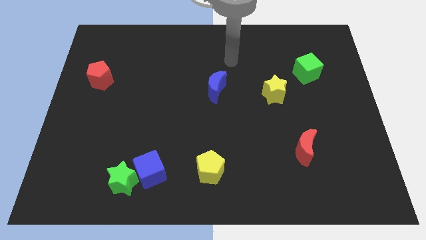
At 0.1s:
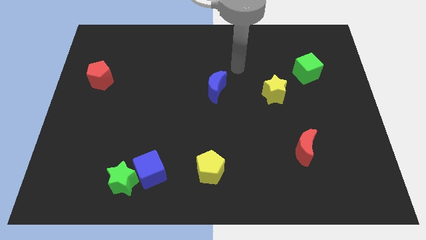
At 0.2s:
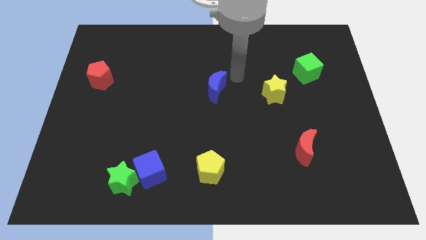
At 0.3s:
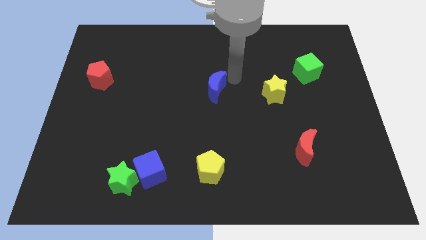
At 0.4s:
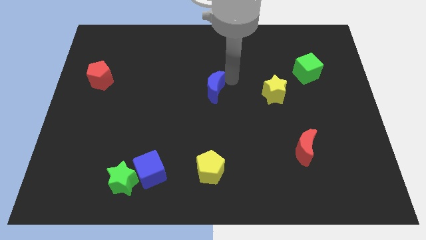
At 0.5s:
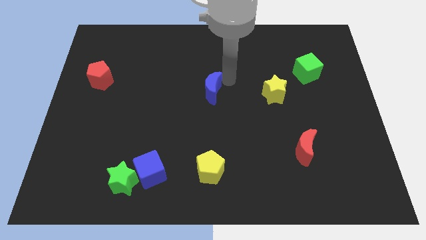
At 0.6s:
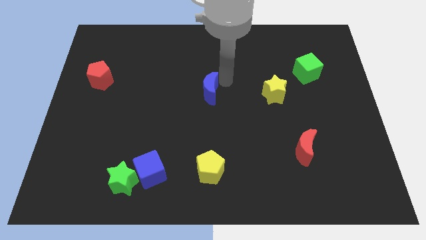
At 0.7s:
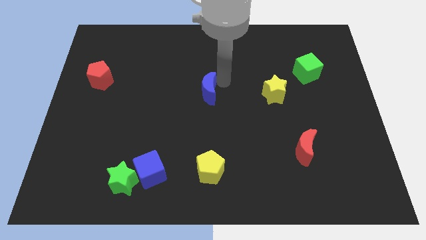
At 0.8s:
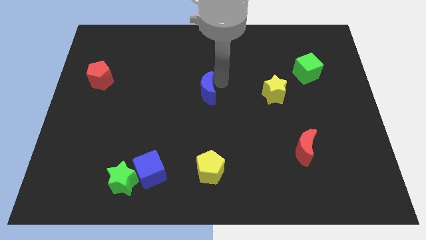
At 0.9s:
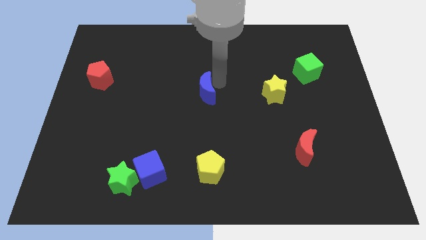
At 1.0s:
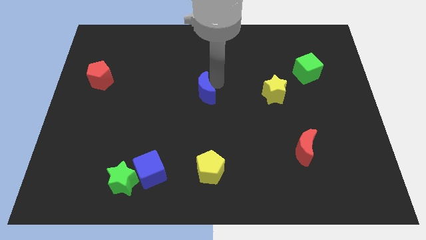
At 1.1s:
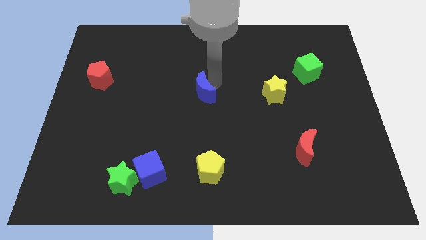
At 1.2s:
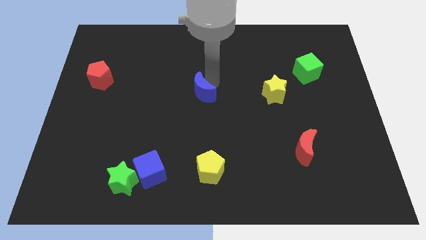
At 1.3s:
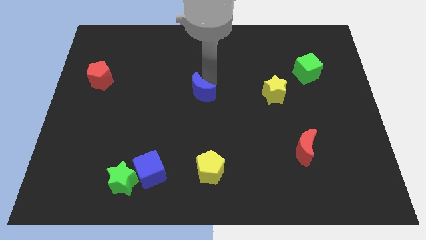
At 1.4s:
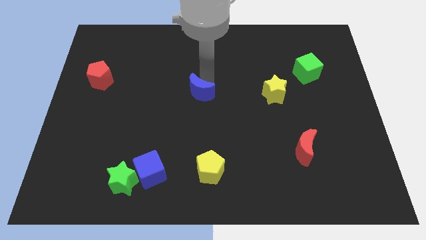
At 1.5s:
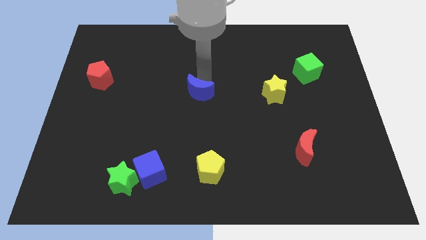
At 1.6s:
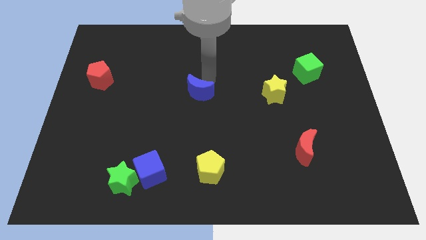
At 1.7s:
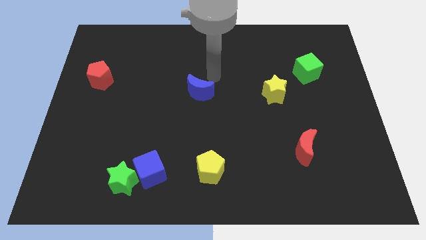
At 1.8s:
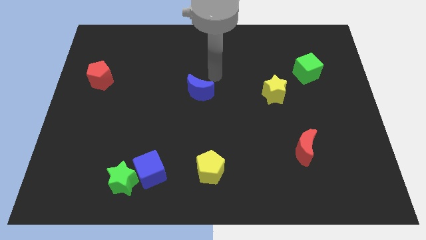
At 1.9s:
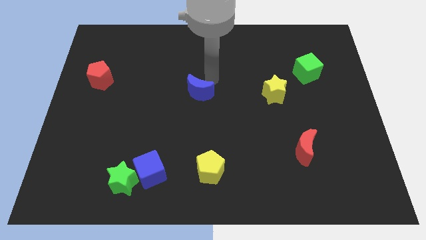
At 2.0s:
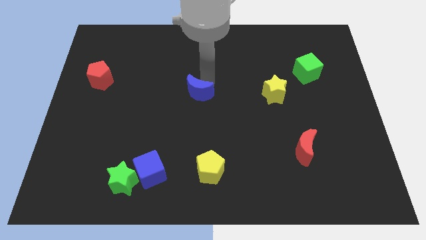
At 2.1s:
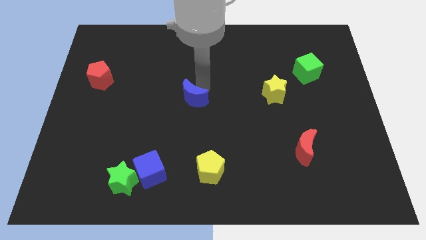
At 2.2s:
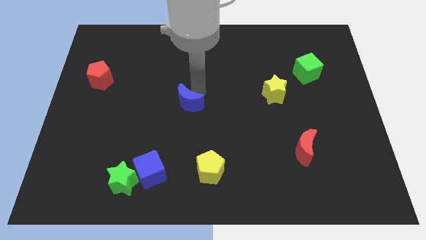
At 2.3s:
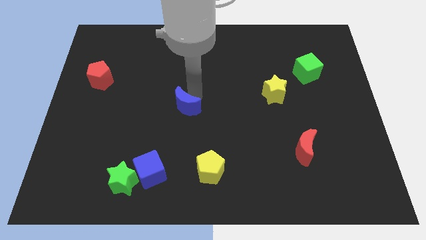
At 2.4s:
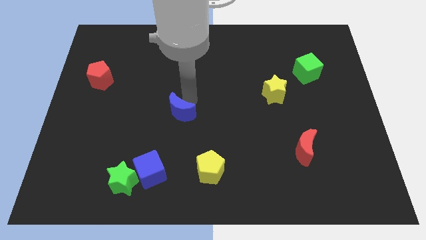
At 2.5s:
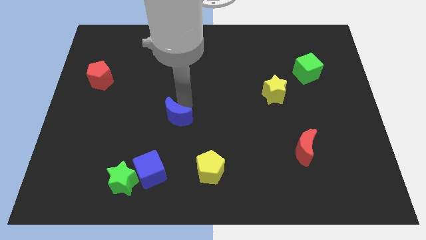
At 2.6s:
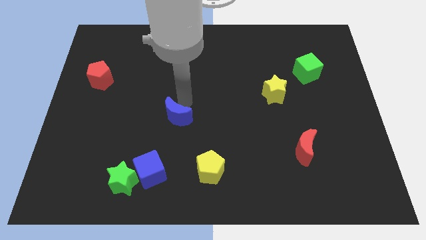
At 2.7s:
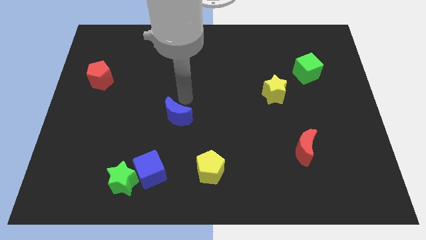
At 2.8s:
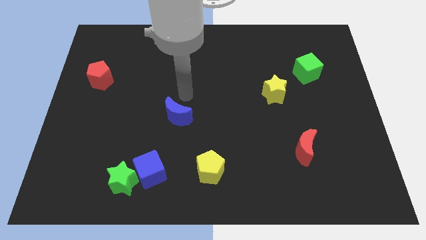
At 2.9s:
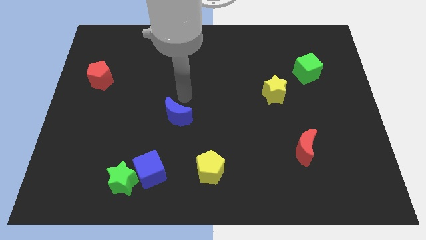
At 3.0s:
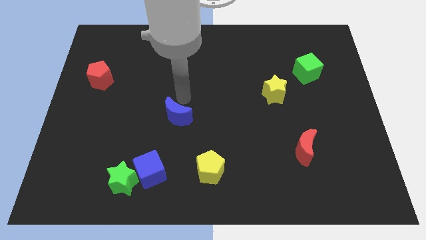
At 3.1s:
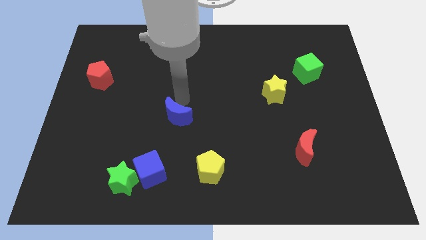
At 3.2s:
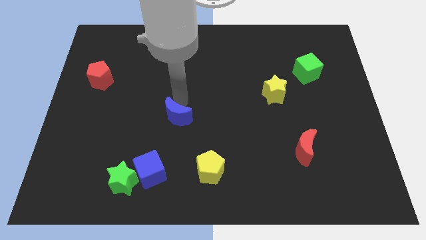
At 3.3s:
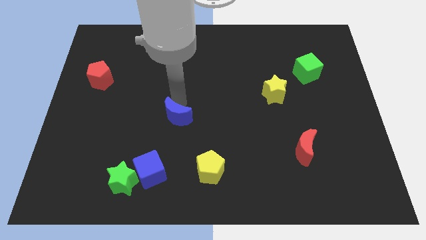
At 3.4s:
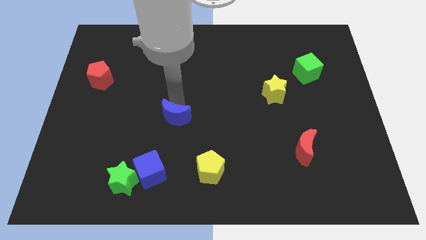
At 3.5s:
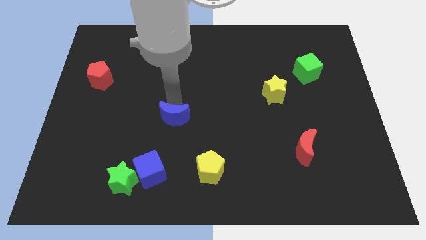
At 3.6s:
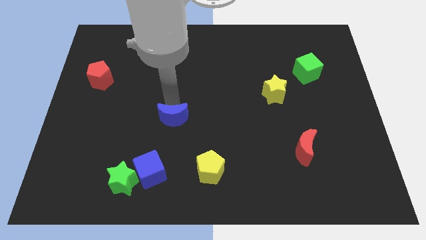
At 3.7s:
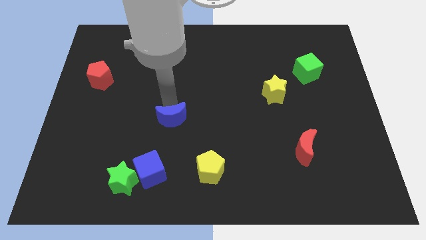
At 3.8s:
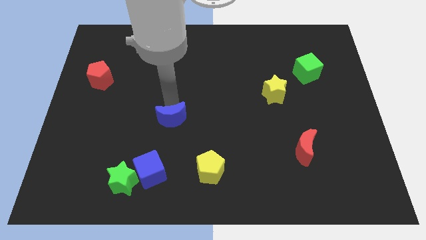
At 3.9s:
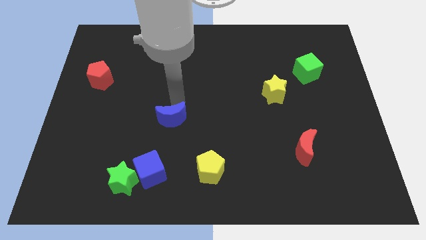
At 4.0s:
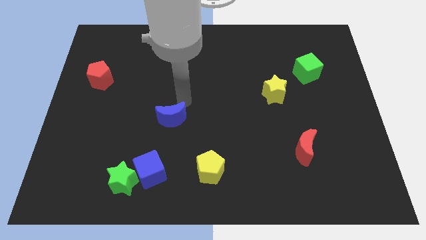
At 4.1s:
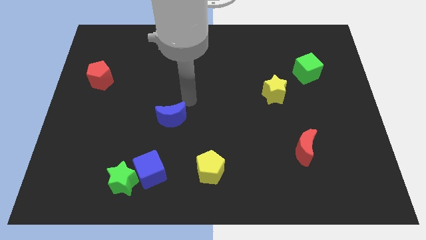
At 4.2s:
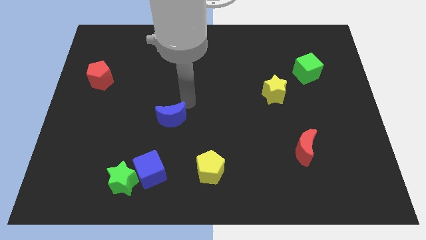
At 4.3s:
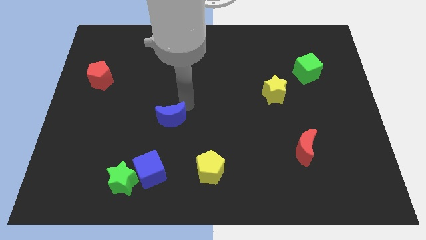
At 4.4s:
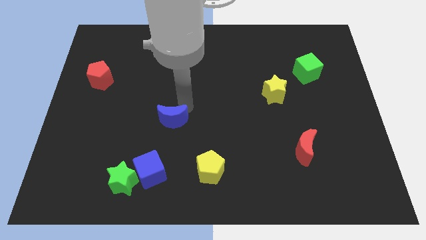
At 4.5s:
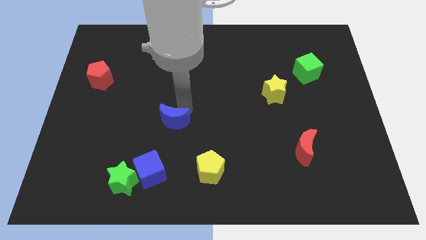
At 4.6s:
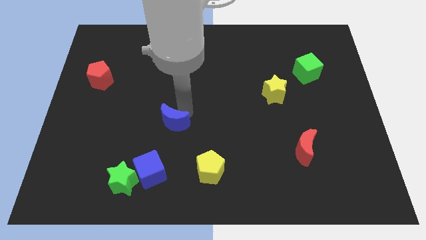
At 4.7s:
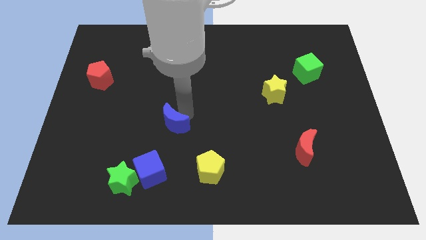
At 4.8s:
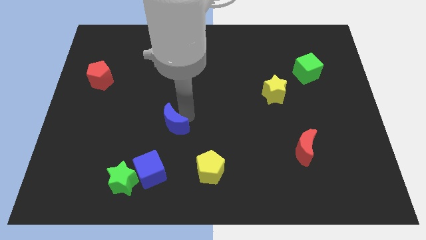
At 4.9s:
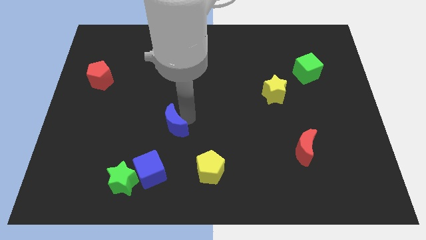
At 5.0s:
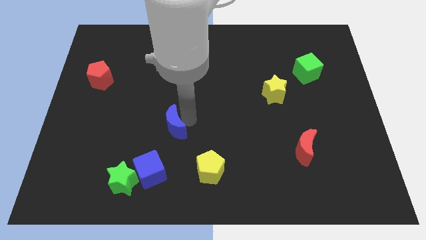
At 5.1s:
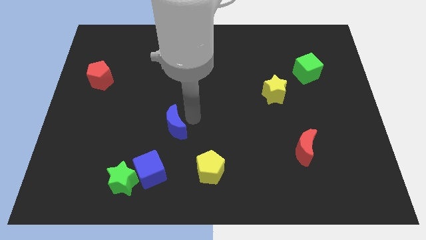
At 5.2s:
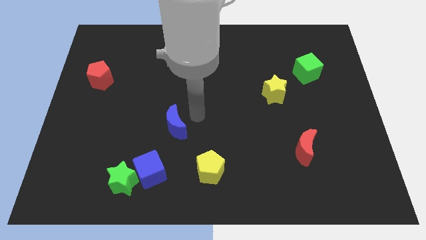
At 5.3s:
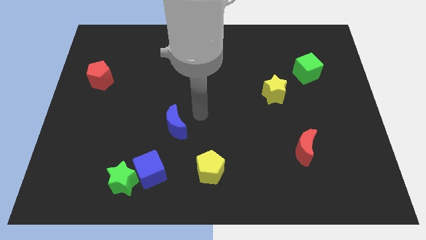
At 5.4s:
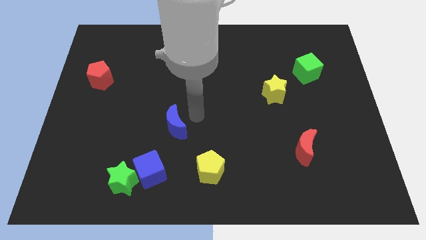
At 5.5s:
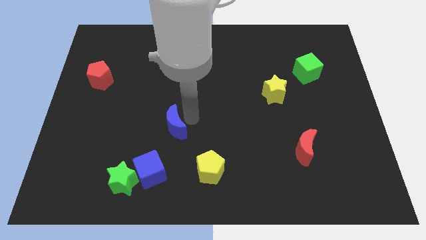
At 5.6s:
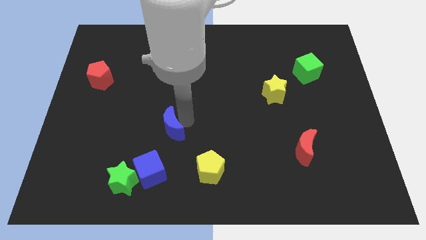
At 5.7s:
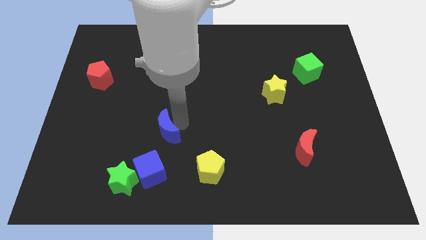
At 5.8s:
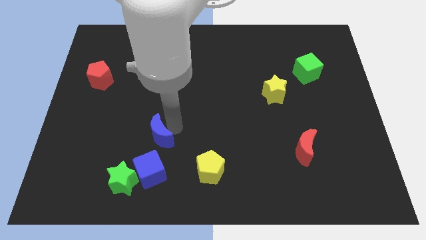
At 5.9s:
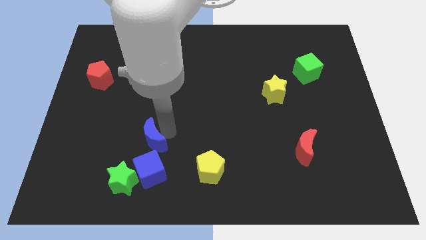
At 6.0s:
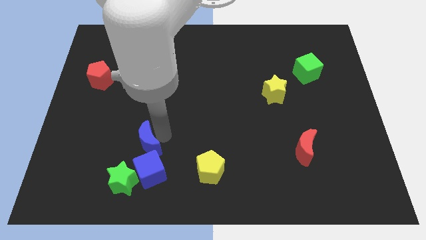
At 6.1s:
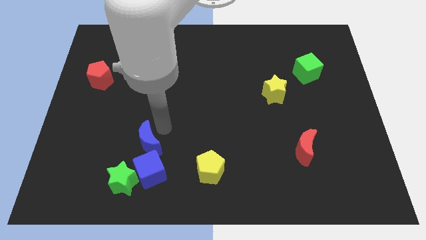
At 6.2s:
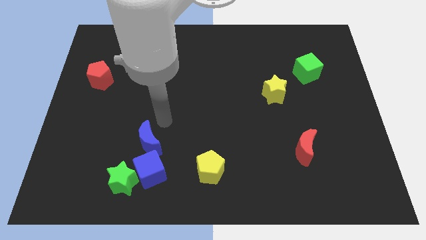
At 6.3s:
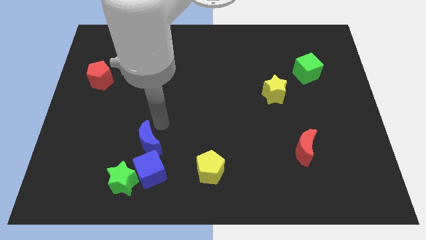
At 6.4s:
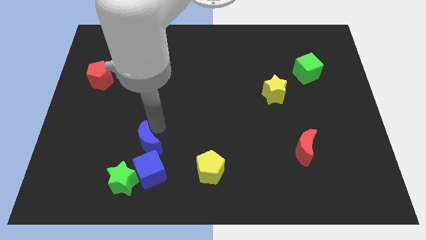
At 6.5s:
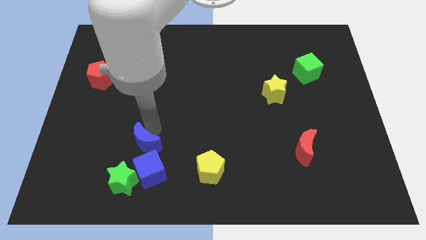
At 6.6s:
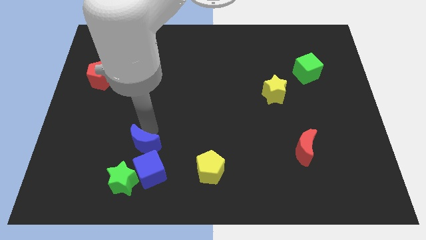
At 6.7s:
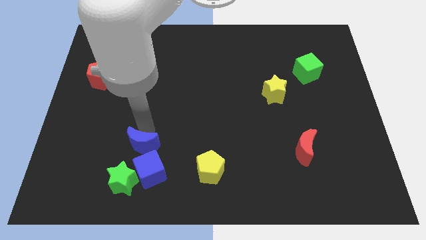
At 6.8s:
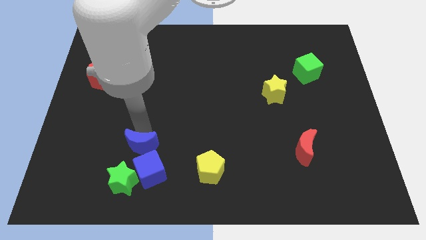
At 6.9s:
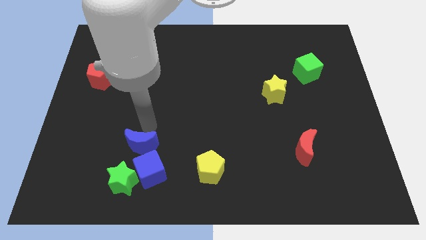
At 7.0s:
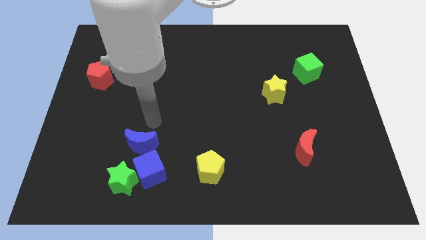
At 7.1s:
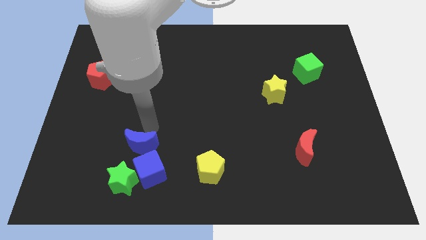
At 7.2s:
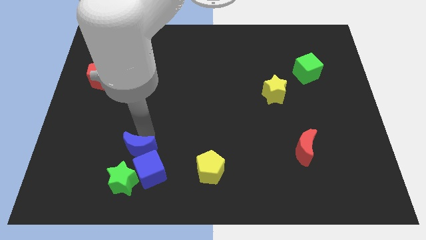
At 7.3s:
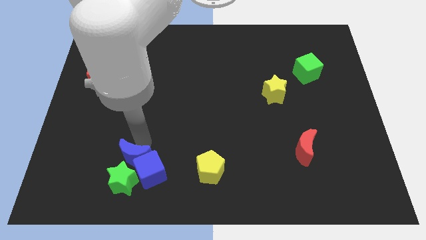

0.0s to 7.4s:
push the blue moon to the green star
